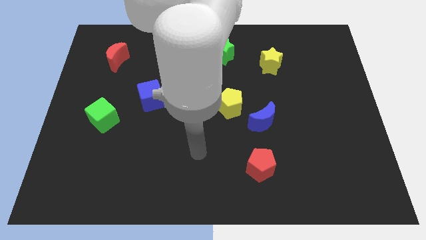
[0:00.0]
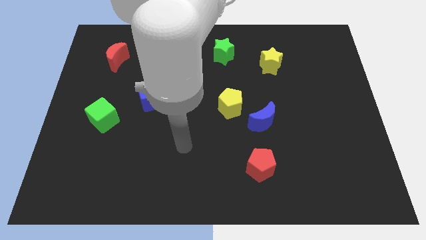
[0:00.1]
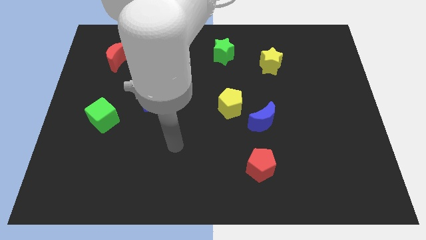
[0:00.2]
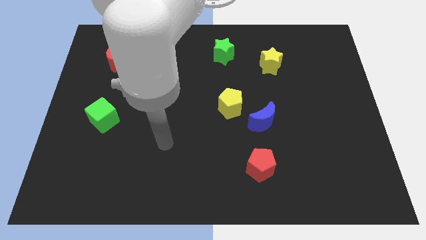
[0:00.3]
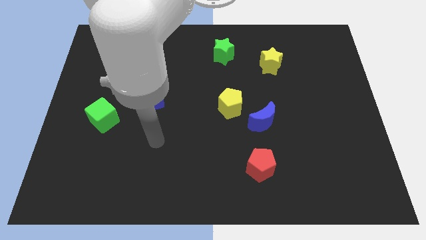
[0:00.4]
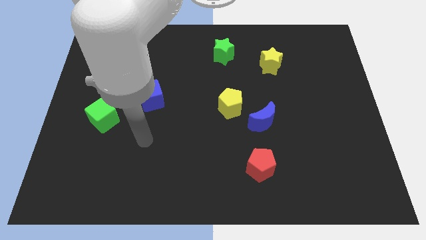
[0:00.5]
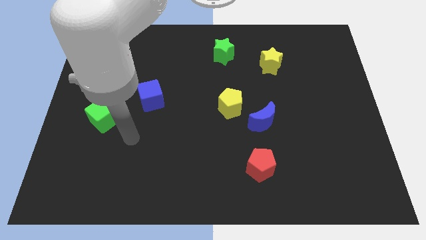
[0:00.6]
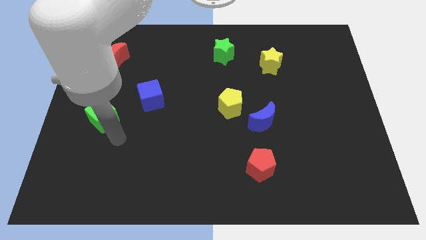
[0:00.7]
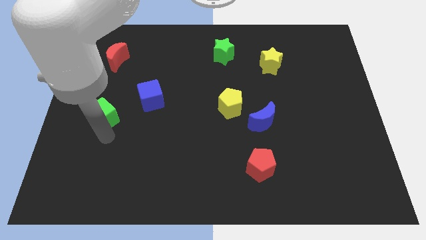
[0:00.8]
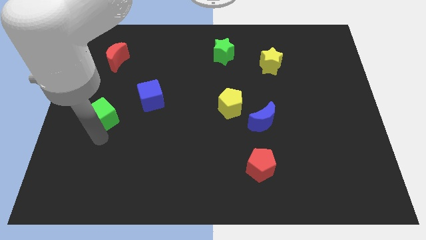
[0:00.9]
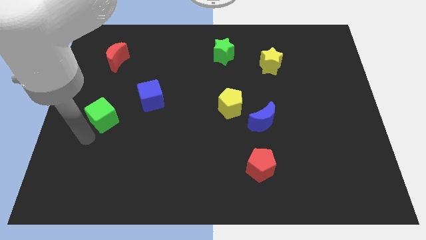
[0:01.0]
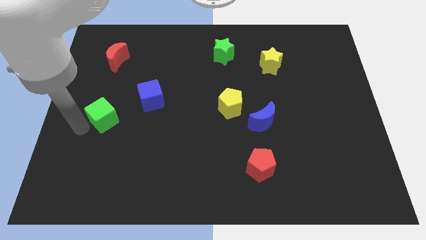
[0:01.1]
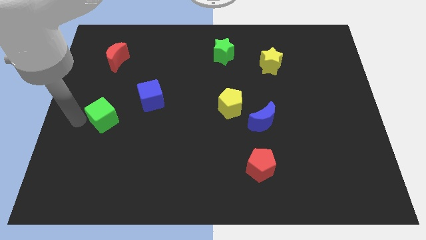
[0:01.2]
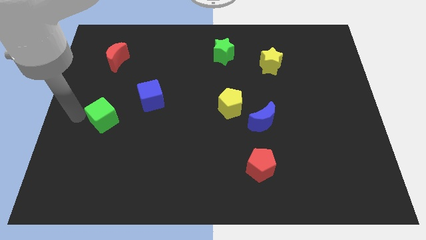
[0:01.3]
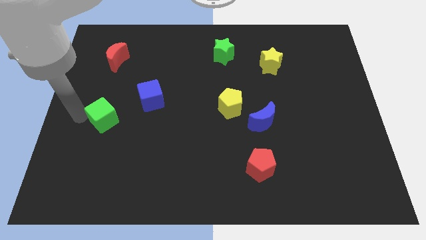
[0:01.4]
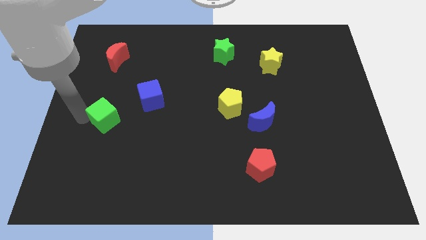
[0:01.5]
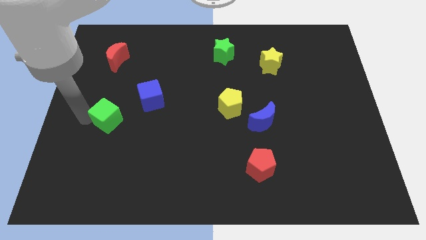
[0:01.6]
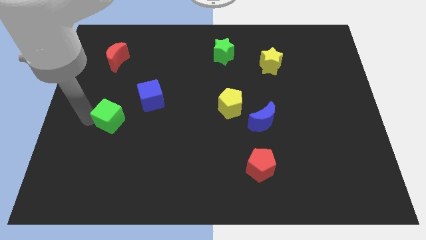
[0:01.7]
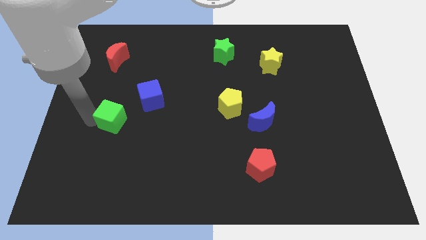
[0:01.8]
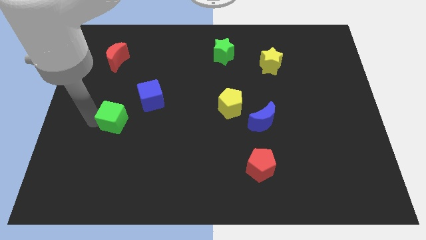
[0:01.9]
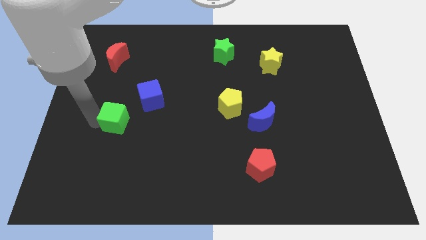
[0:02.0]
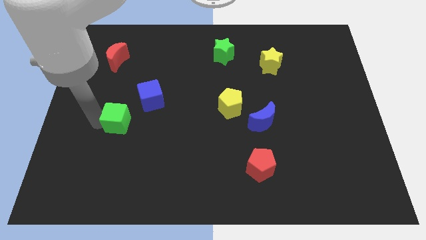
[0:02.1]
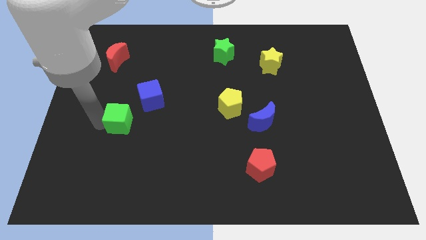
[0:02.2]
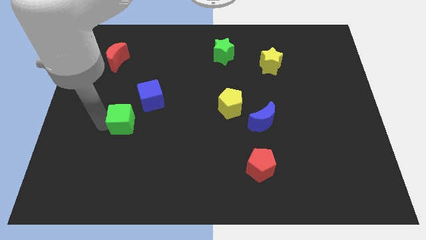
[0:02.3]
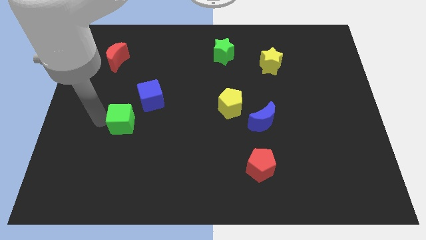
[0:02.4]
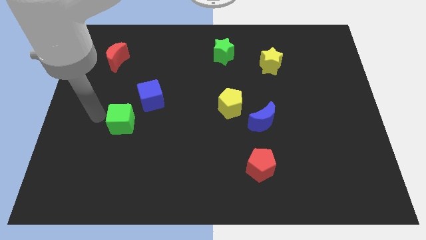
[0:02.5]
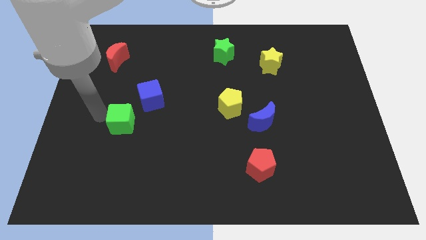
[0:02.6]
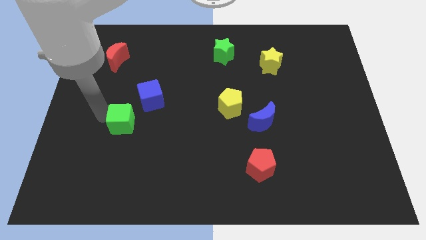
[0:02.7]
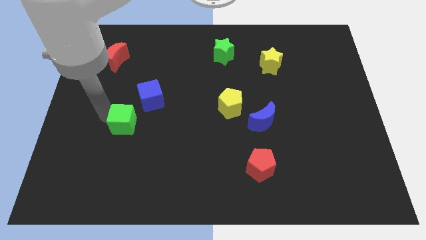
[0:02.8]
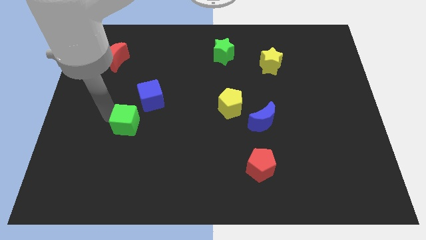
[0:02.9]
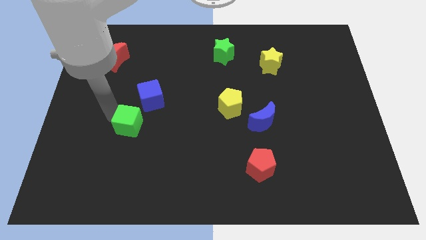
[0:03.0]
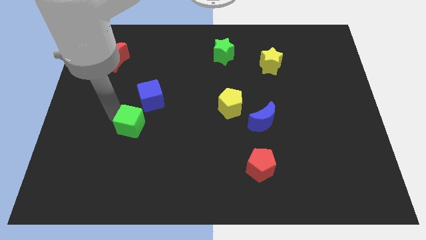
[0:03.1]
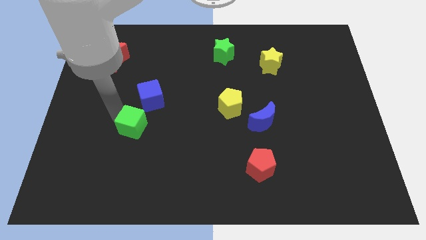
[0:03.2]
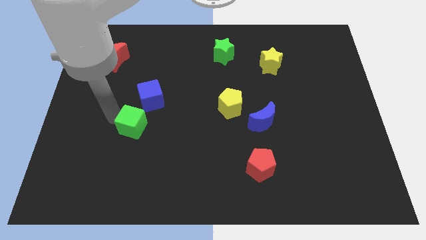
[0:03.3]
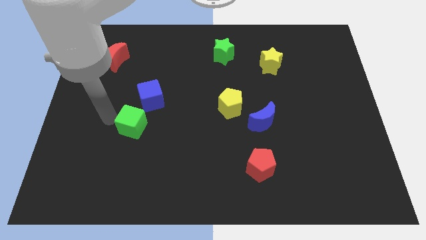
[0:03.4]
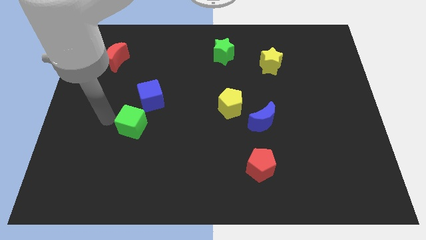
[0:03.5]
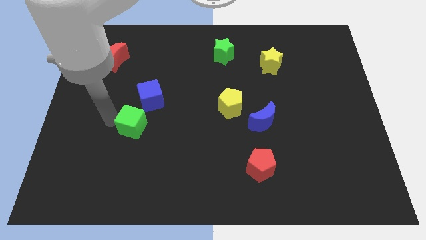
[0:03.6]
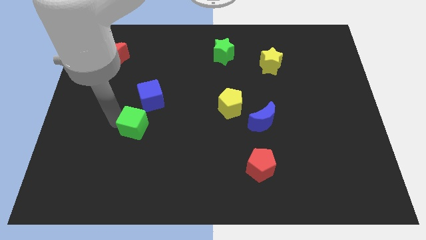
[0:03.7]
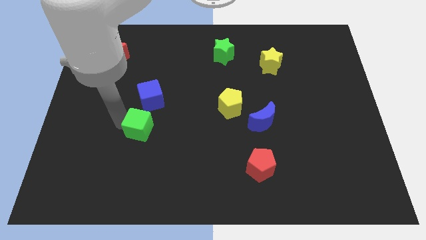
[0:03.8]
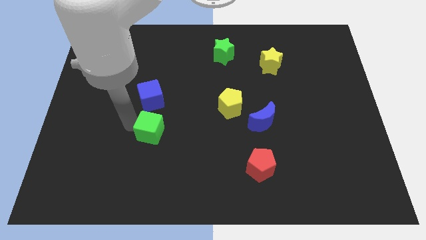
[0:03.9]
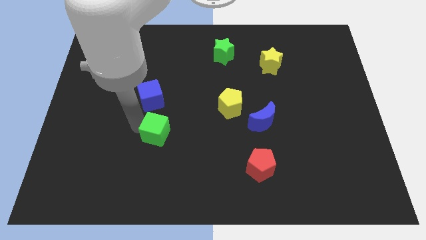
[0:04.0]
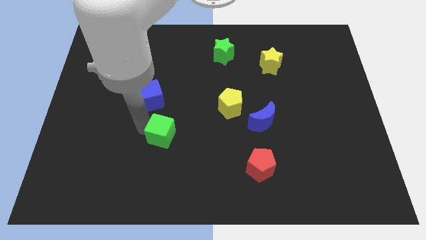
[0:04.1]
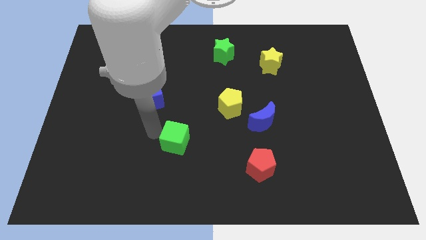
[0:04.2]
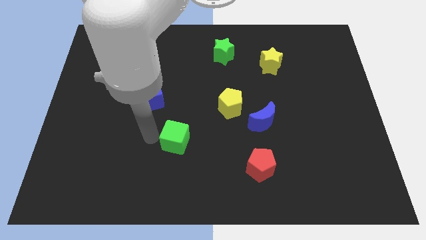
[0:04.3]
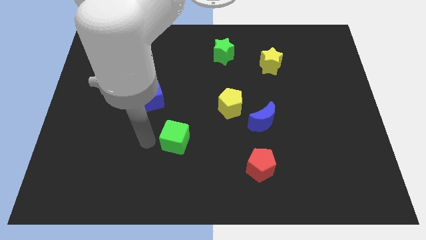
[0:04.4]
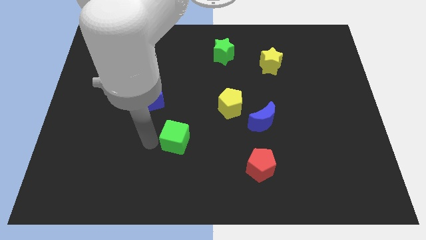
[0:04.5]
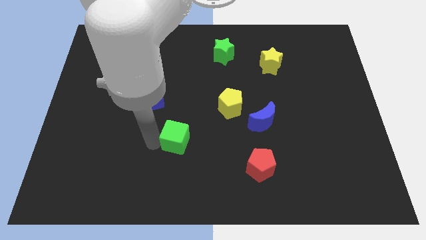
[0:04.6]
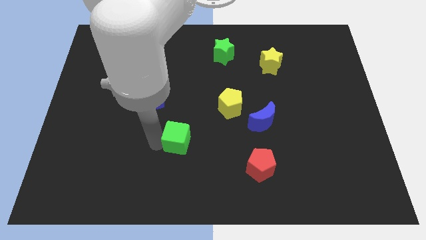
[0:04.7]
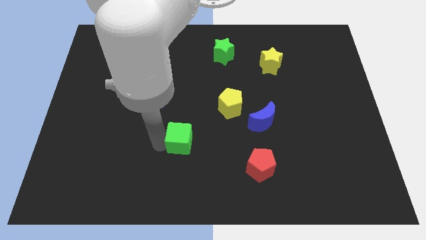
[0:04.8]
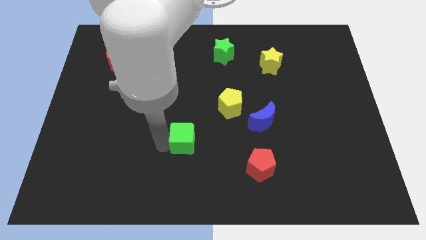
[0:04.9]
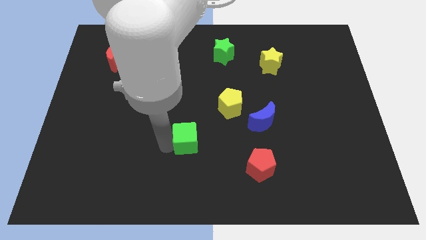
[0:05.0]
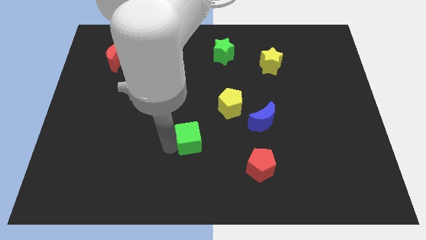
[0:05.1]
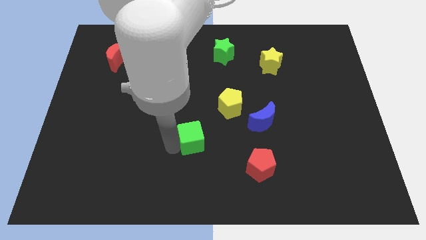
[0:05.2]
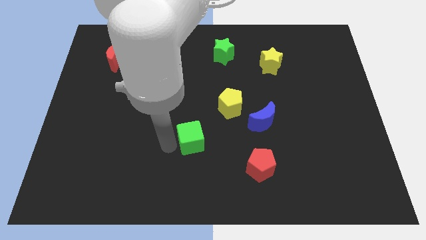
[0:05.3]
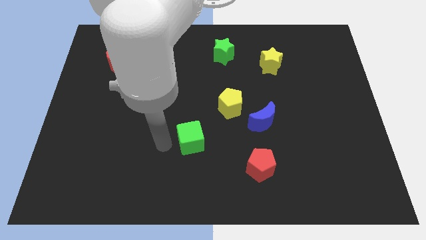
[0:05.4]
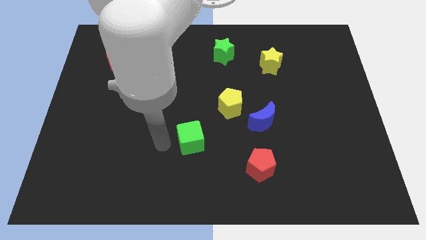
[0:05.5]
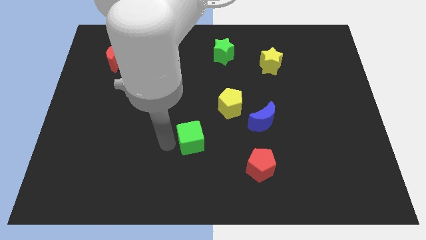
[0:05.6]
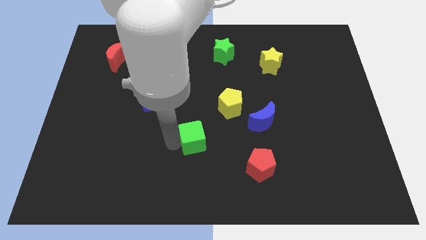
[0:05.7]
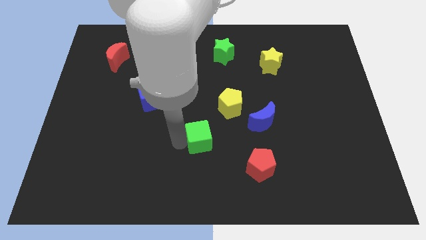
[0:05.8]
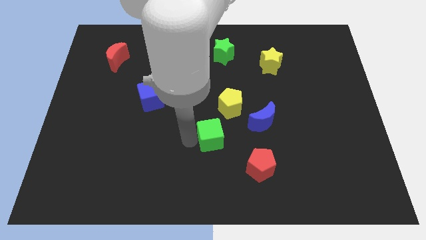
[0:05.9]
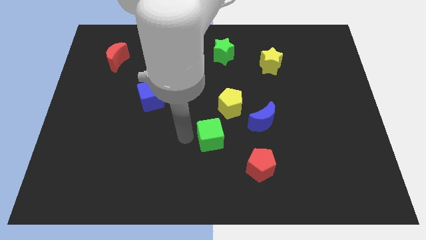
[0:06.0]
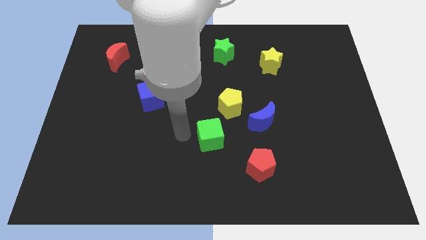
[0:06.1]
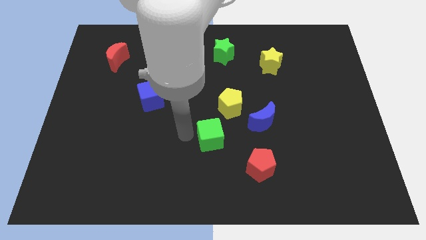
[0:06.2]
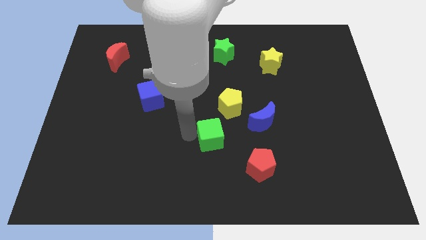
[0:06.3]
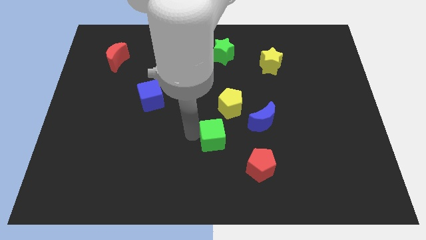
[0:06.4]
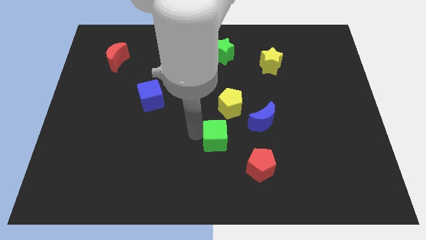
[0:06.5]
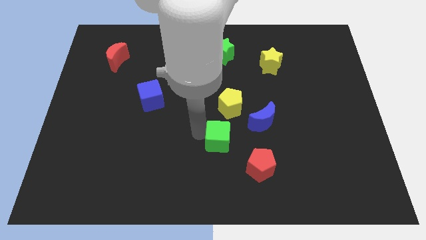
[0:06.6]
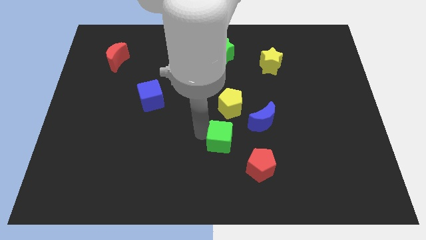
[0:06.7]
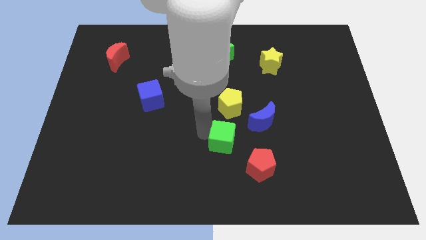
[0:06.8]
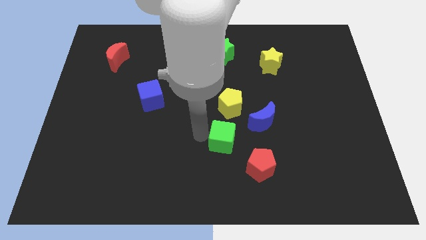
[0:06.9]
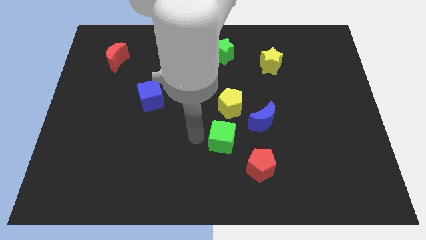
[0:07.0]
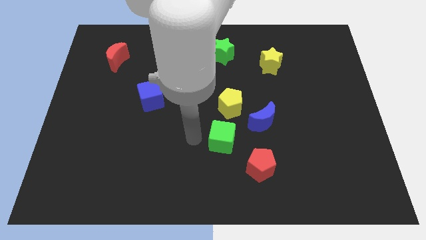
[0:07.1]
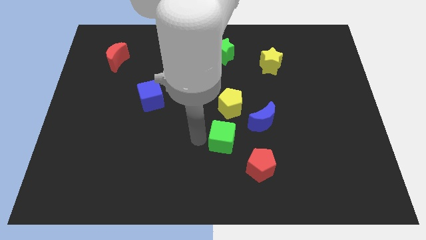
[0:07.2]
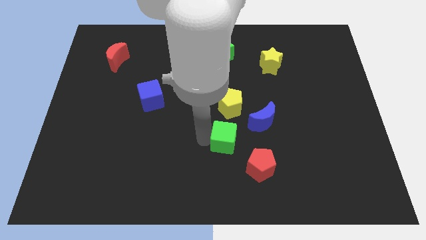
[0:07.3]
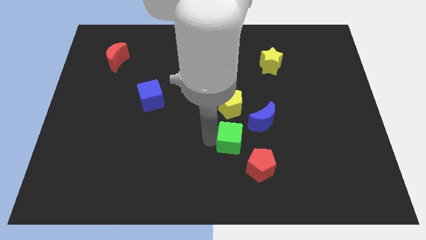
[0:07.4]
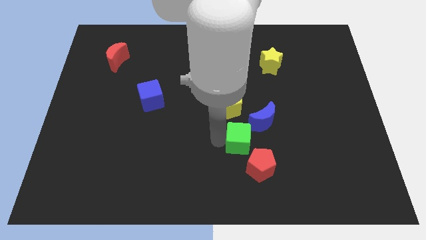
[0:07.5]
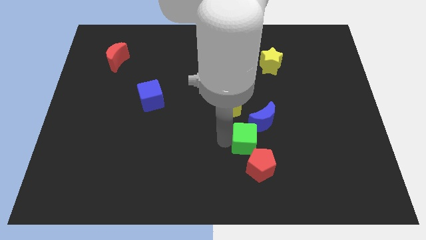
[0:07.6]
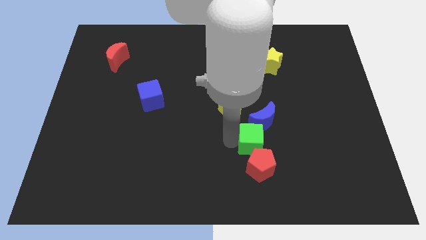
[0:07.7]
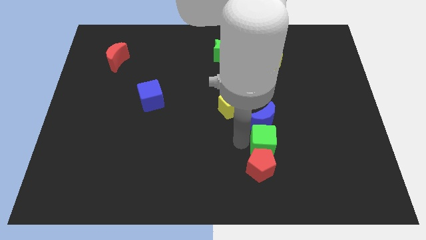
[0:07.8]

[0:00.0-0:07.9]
put the green cube to the bottom right side of the blue moon
